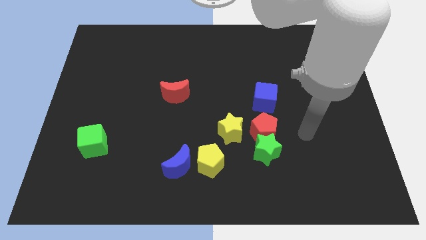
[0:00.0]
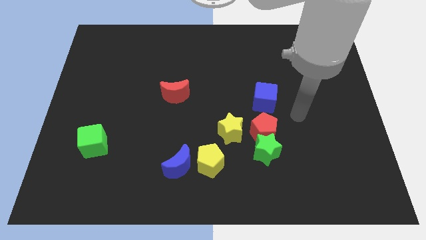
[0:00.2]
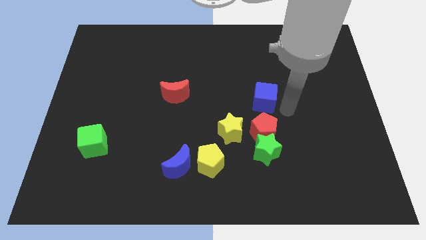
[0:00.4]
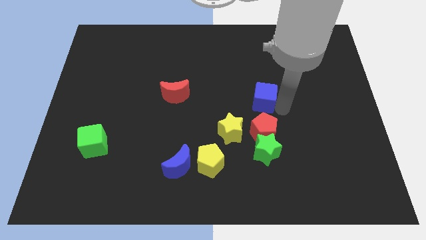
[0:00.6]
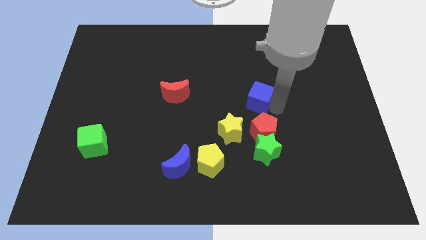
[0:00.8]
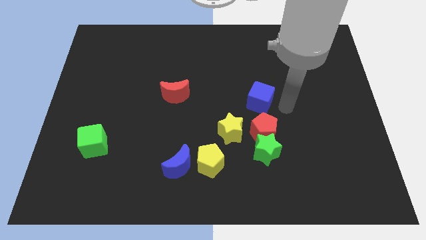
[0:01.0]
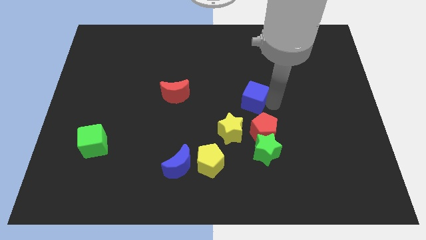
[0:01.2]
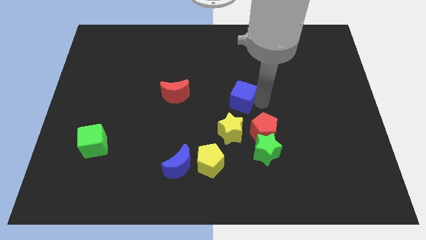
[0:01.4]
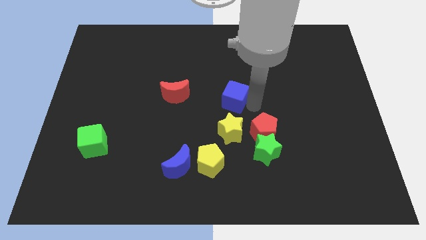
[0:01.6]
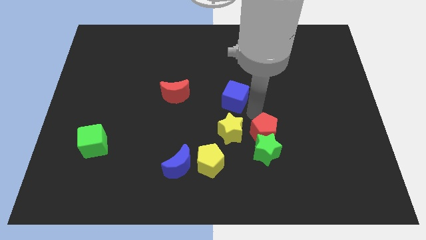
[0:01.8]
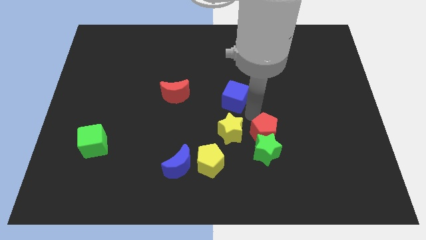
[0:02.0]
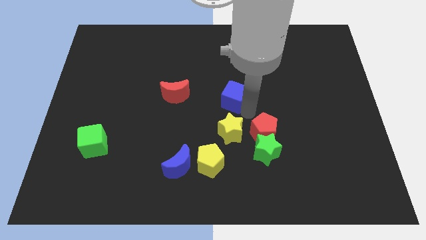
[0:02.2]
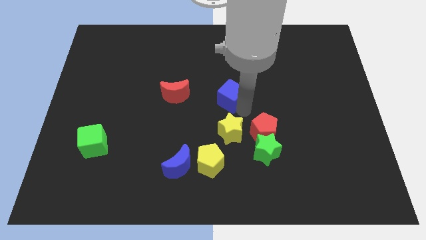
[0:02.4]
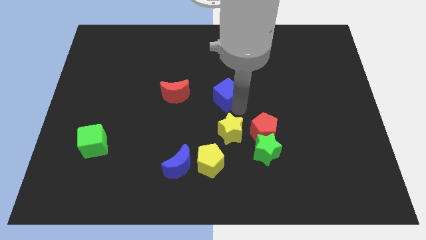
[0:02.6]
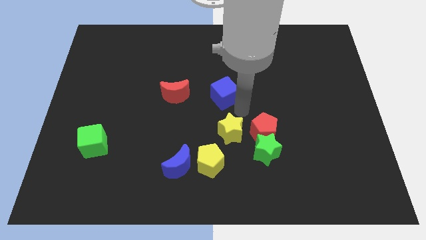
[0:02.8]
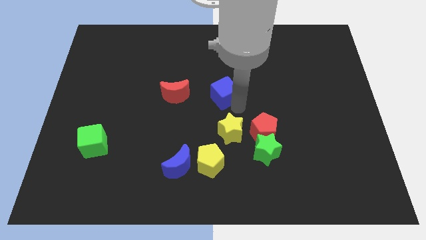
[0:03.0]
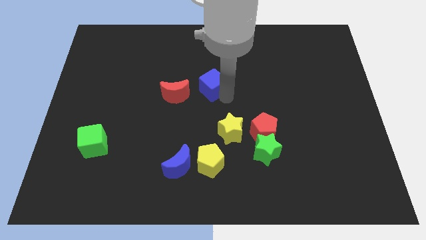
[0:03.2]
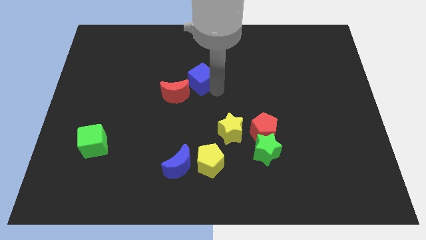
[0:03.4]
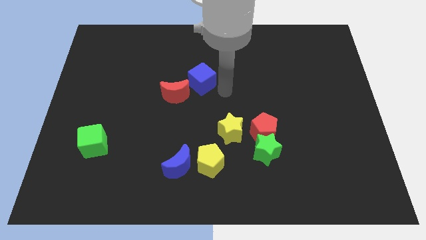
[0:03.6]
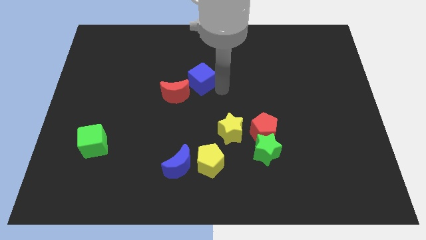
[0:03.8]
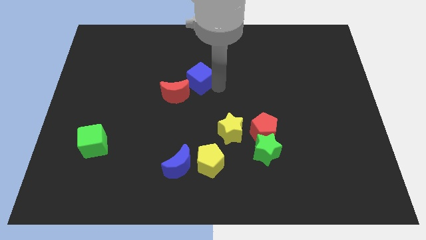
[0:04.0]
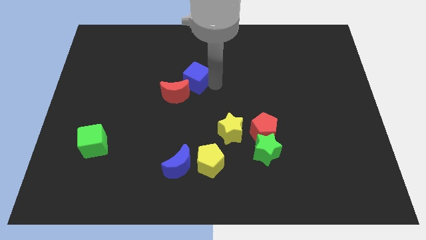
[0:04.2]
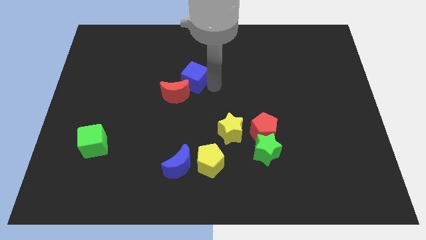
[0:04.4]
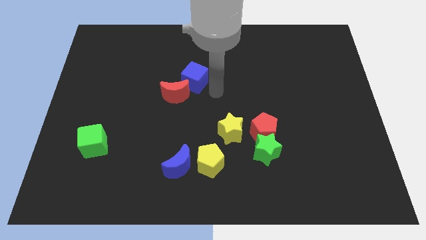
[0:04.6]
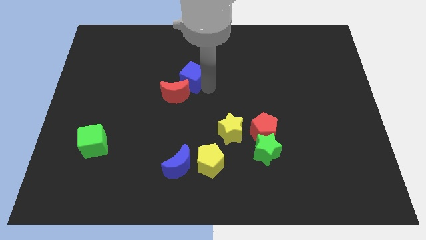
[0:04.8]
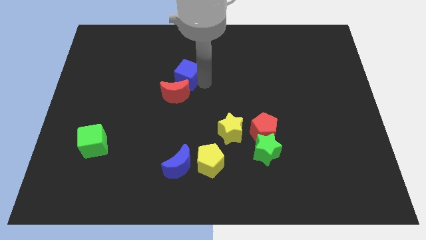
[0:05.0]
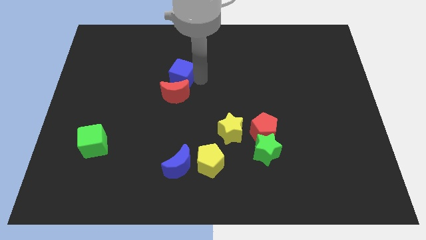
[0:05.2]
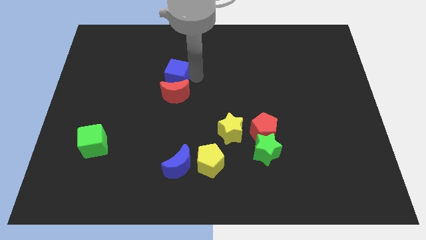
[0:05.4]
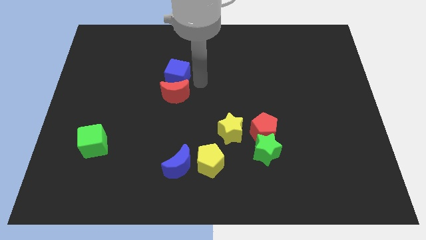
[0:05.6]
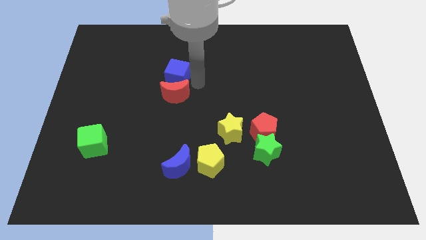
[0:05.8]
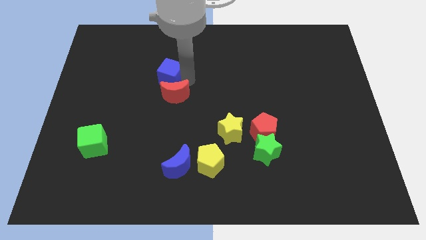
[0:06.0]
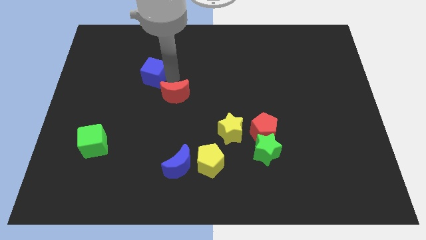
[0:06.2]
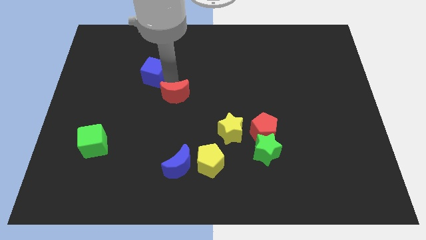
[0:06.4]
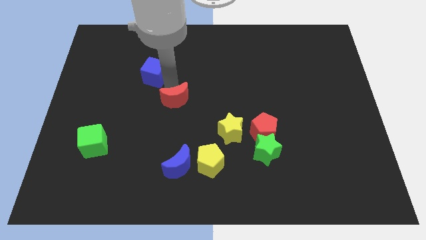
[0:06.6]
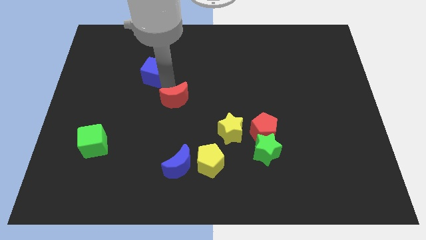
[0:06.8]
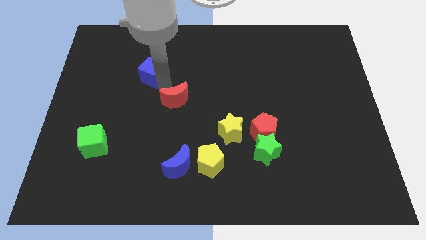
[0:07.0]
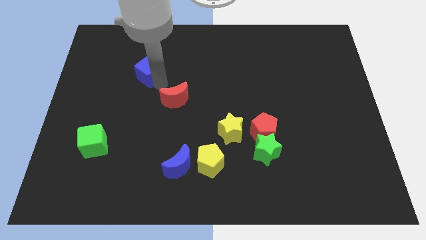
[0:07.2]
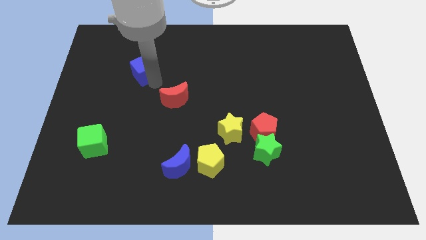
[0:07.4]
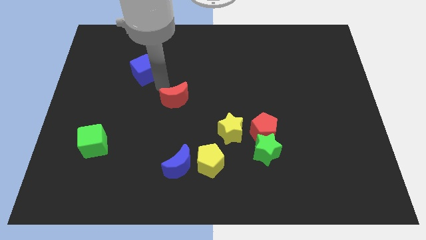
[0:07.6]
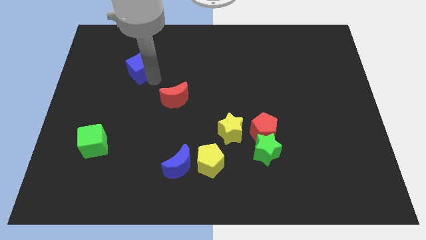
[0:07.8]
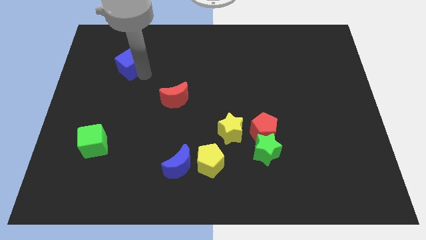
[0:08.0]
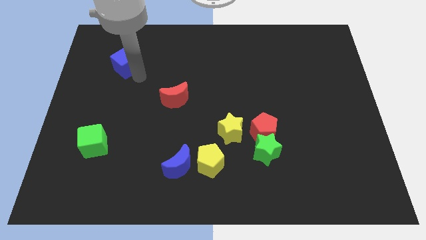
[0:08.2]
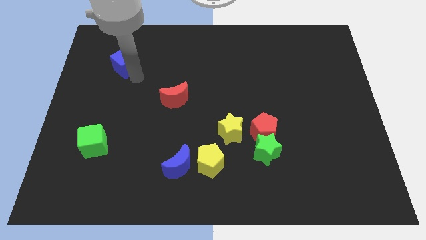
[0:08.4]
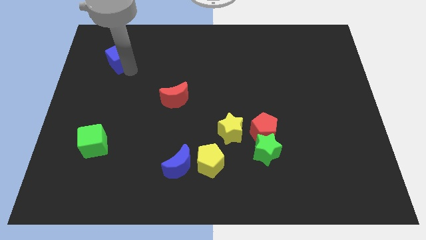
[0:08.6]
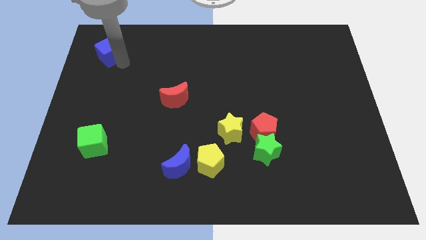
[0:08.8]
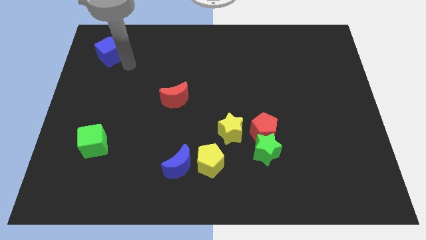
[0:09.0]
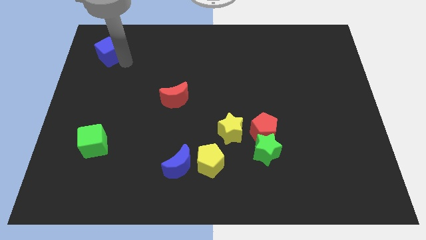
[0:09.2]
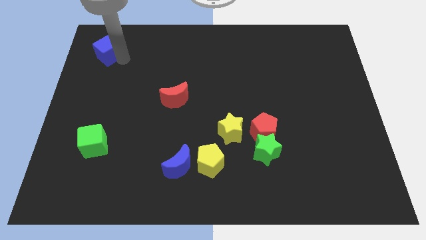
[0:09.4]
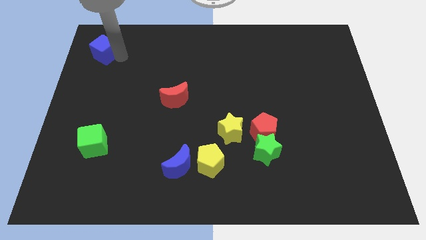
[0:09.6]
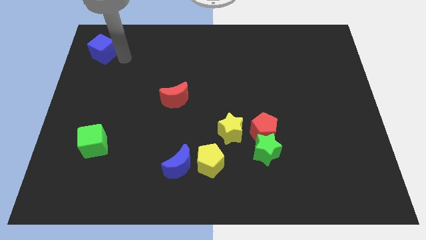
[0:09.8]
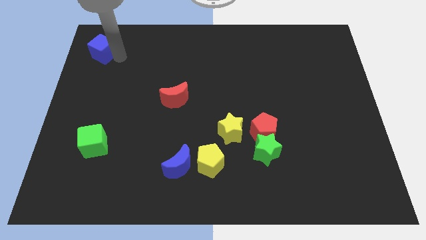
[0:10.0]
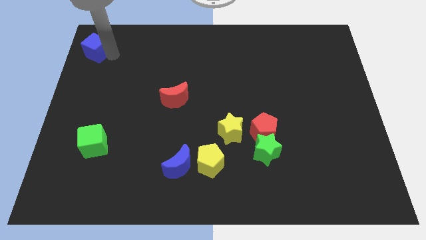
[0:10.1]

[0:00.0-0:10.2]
put the blue cube to the top left corner

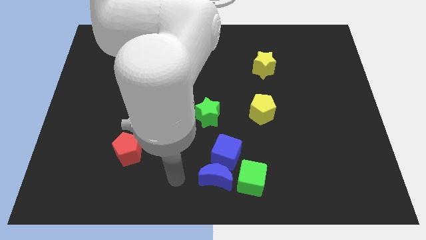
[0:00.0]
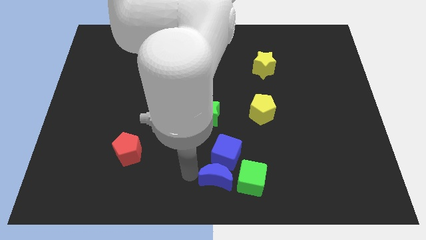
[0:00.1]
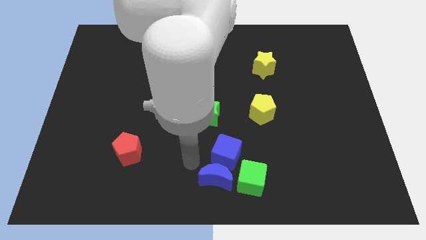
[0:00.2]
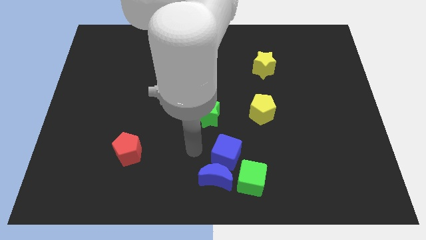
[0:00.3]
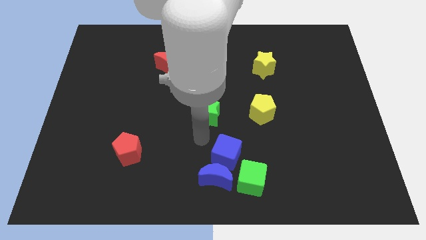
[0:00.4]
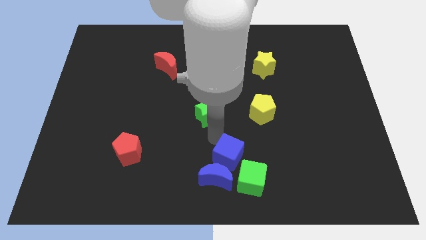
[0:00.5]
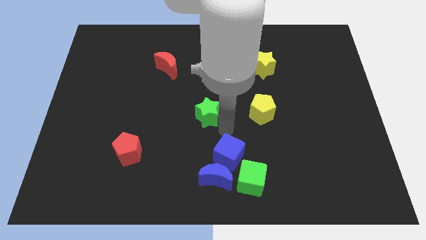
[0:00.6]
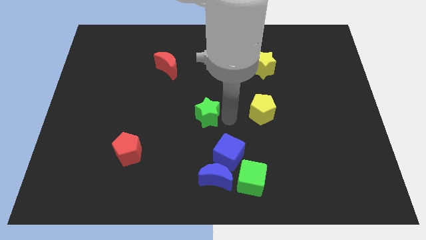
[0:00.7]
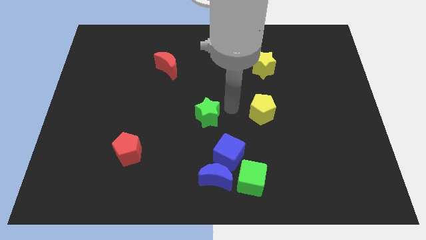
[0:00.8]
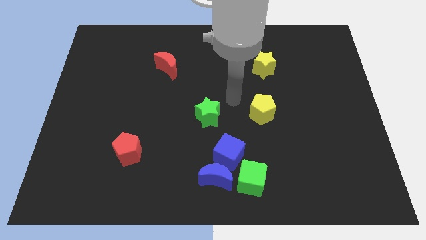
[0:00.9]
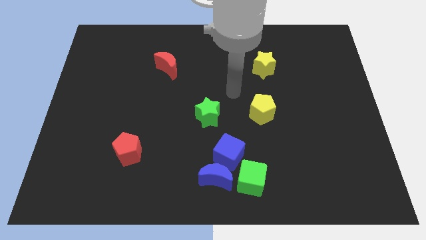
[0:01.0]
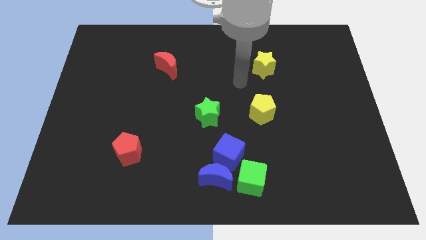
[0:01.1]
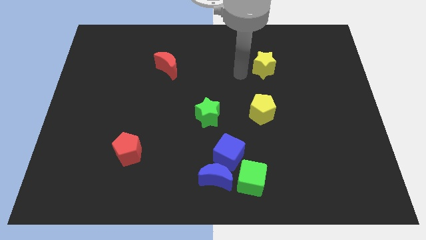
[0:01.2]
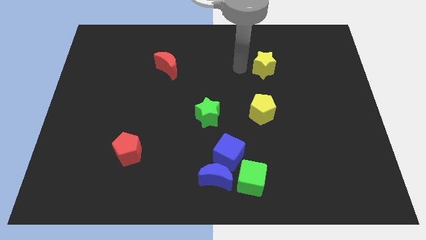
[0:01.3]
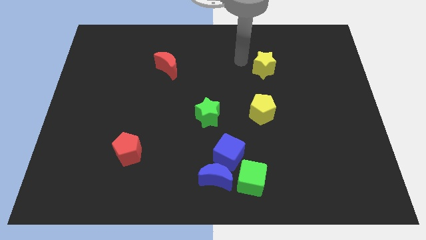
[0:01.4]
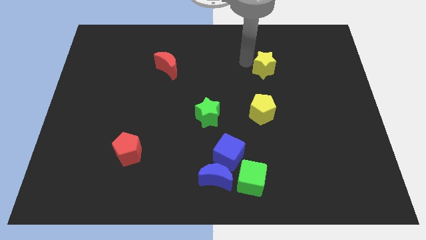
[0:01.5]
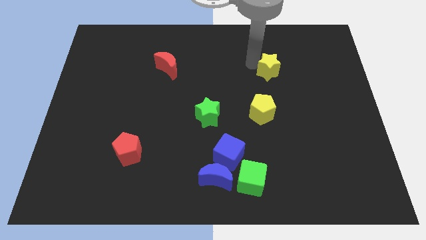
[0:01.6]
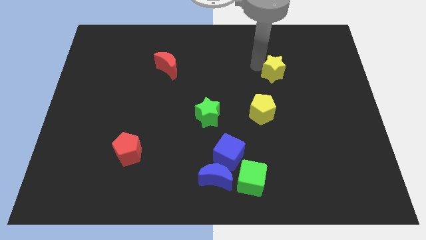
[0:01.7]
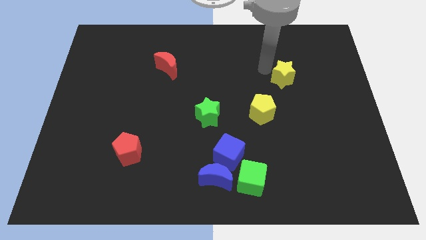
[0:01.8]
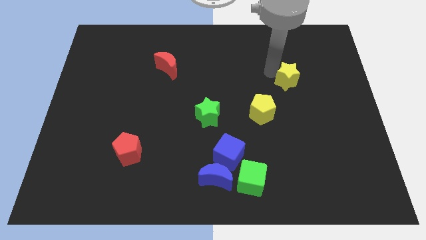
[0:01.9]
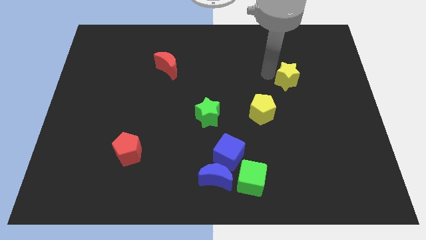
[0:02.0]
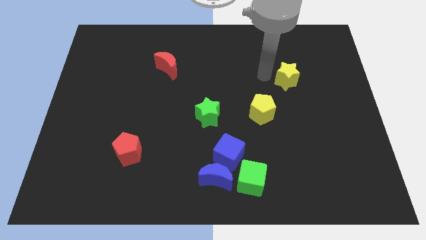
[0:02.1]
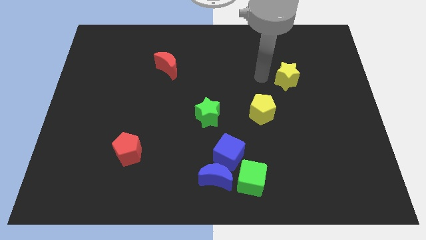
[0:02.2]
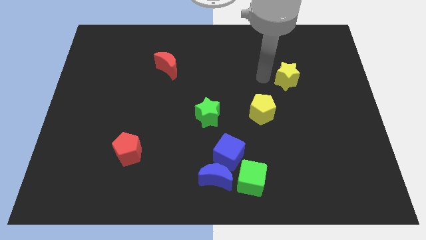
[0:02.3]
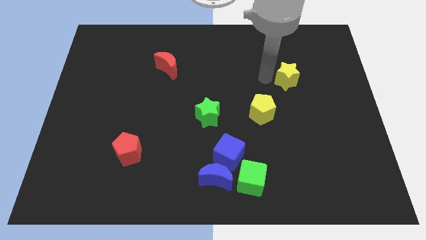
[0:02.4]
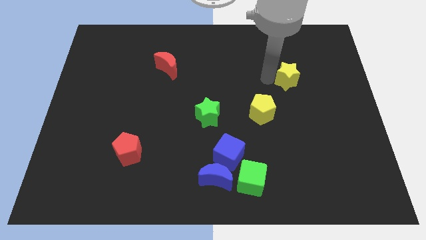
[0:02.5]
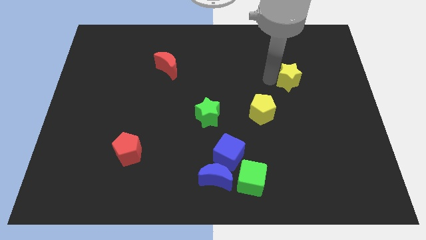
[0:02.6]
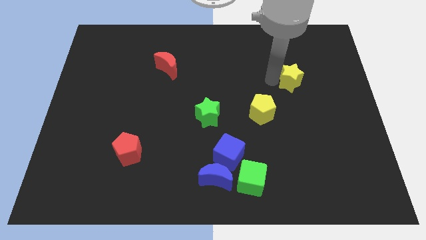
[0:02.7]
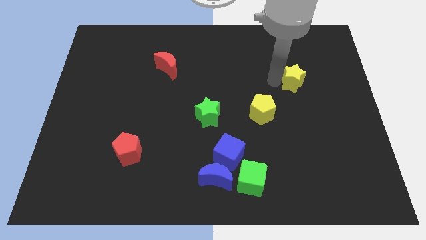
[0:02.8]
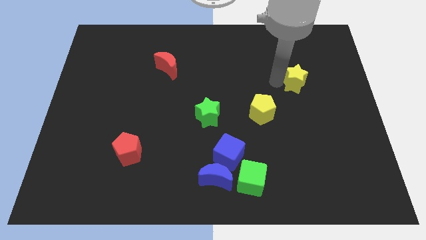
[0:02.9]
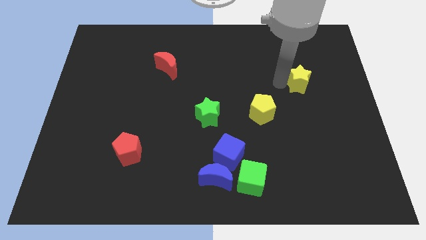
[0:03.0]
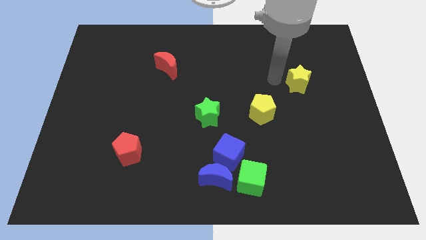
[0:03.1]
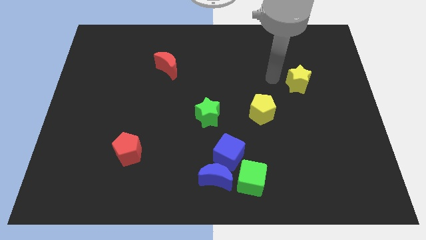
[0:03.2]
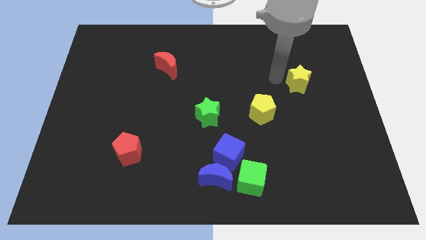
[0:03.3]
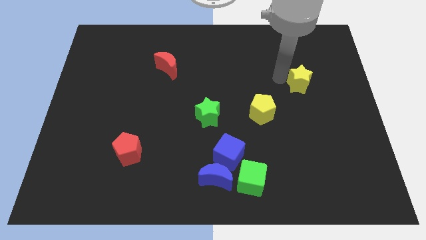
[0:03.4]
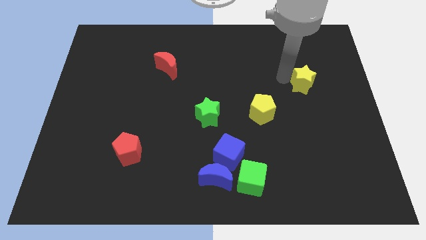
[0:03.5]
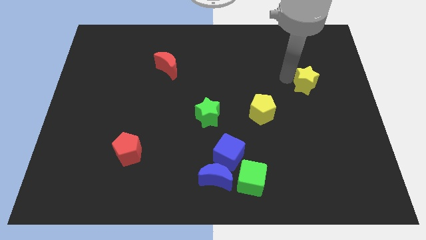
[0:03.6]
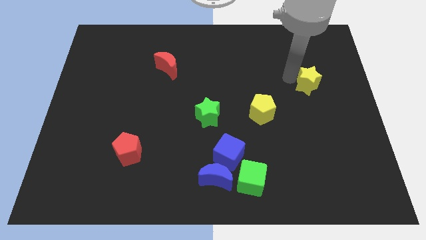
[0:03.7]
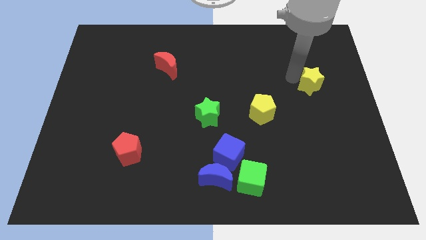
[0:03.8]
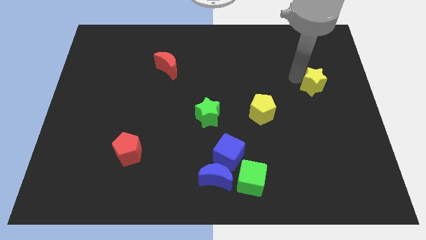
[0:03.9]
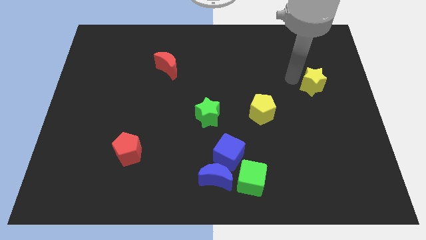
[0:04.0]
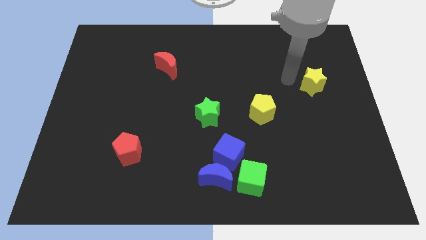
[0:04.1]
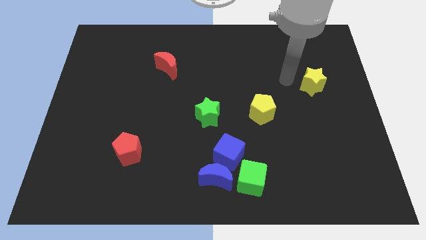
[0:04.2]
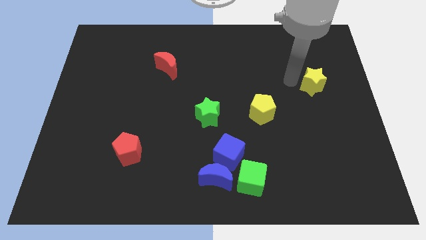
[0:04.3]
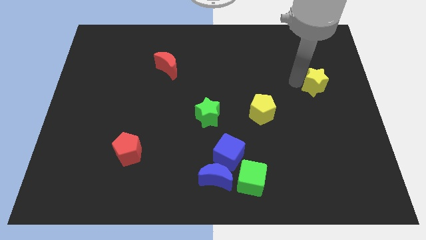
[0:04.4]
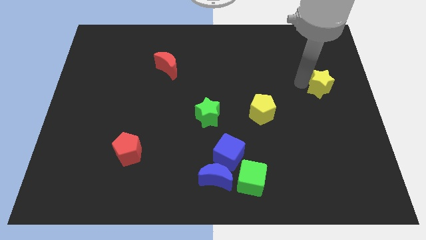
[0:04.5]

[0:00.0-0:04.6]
move the yellow star to the right side
